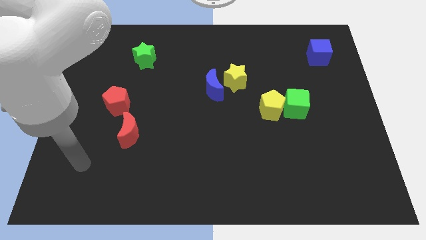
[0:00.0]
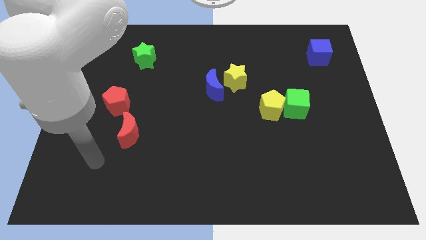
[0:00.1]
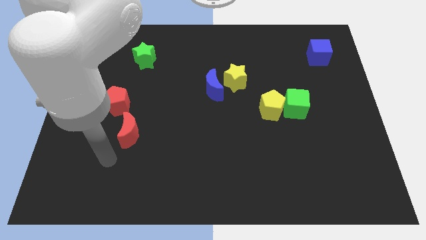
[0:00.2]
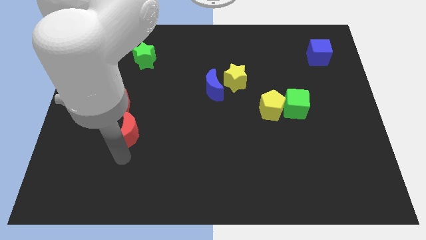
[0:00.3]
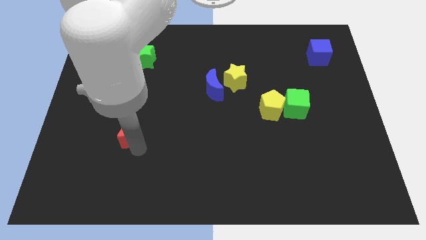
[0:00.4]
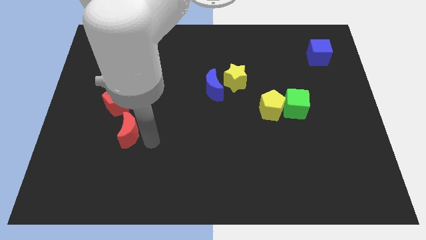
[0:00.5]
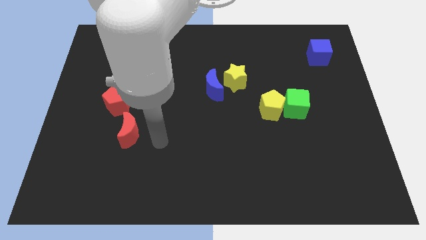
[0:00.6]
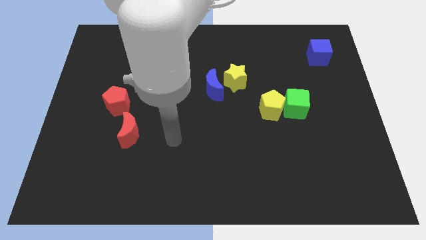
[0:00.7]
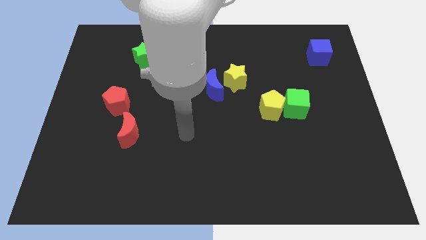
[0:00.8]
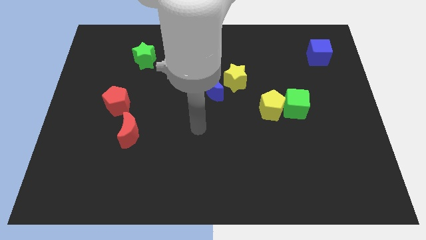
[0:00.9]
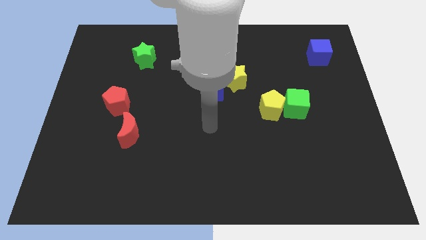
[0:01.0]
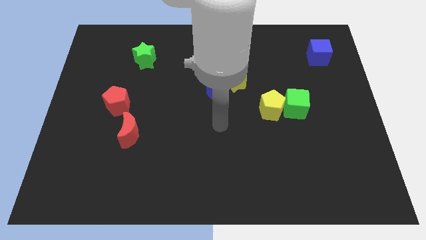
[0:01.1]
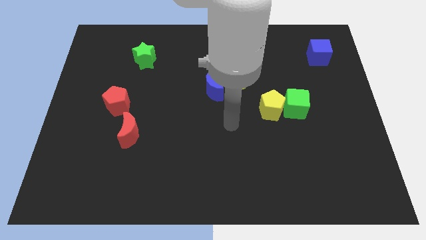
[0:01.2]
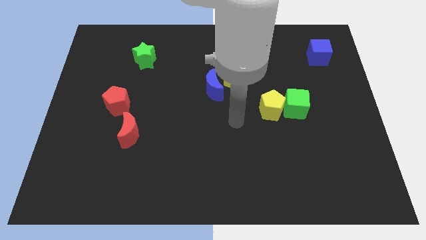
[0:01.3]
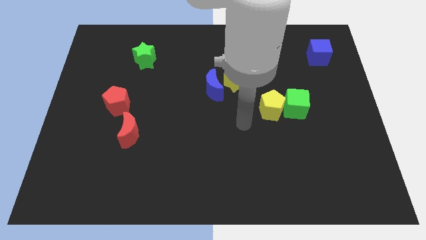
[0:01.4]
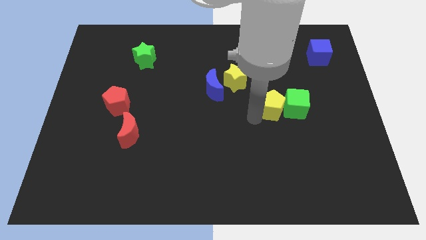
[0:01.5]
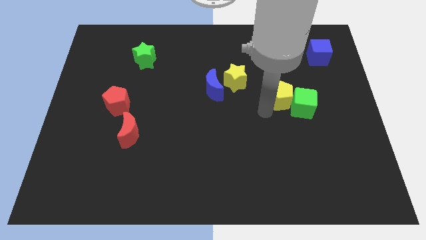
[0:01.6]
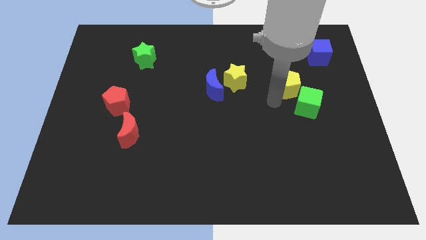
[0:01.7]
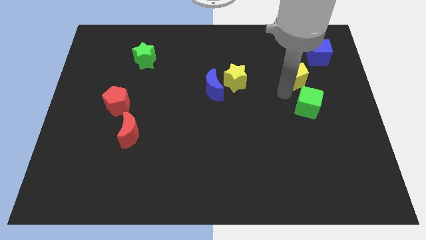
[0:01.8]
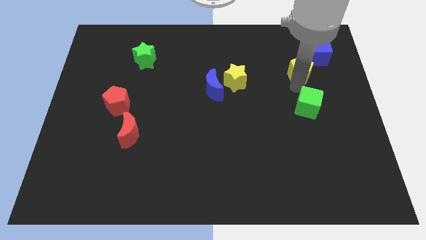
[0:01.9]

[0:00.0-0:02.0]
move the green cube away from the yellow pentagon

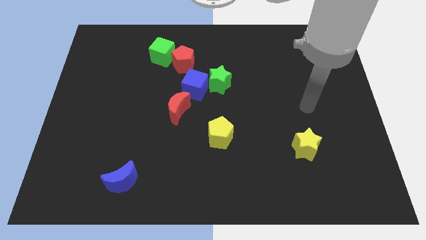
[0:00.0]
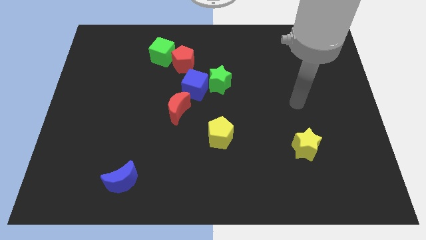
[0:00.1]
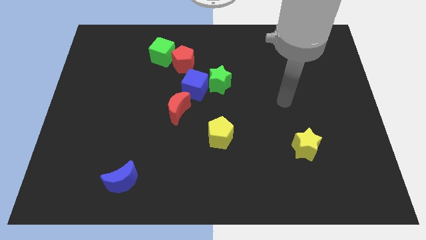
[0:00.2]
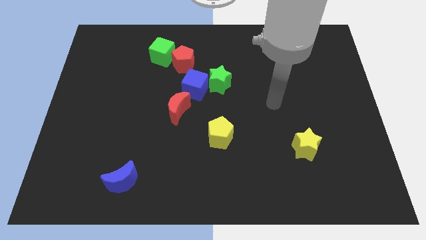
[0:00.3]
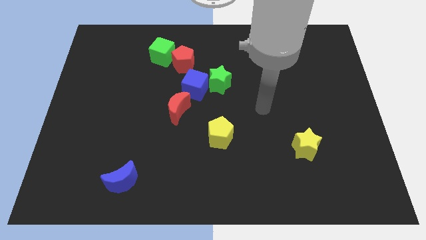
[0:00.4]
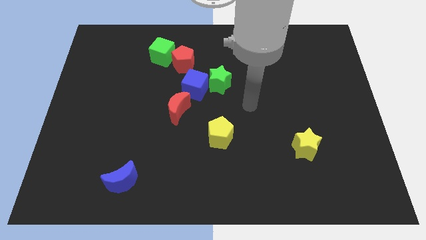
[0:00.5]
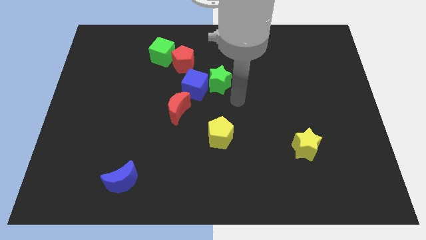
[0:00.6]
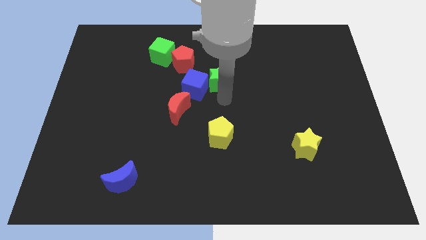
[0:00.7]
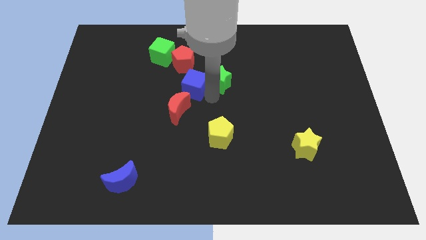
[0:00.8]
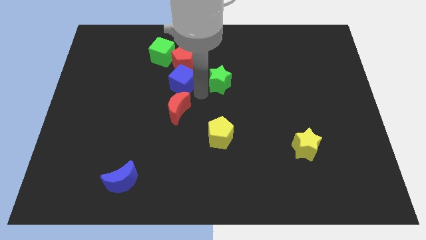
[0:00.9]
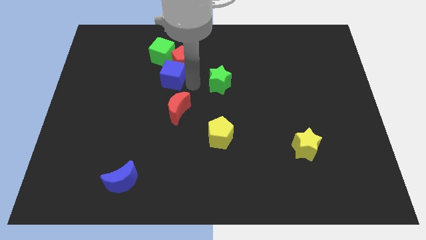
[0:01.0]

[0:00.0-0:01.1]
move the green star away from the blue cube

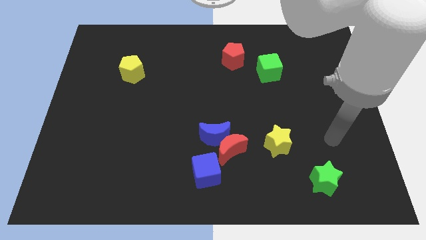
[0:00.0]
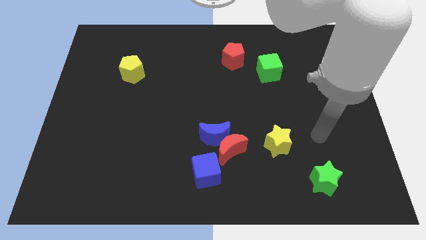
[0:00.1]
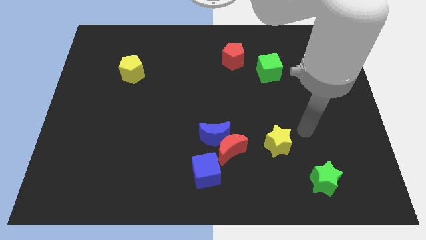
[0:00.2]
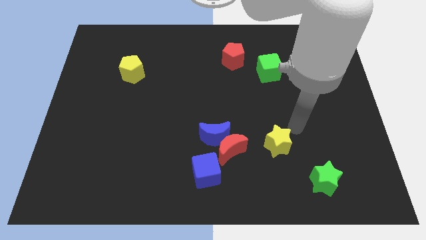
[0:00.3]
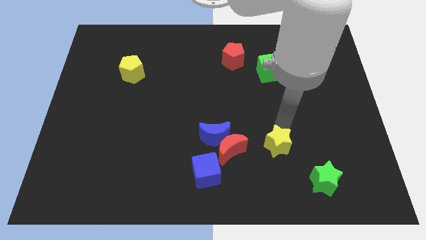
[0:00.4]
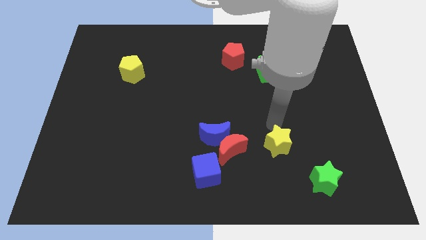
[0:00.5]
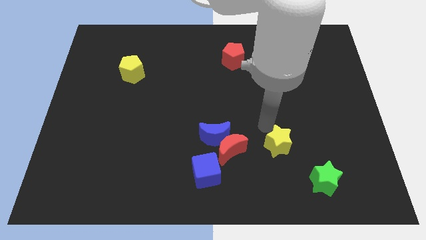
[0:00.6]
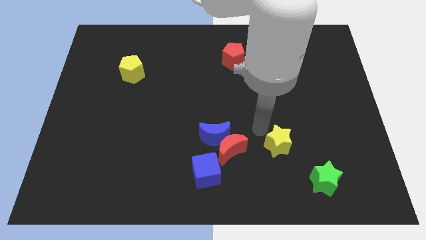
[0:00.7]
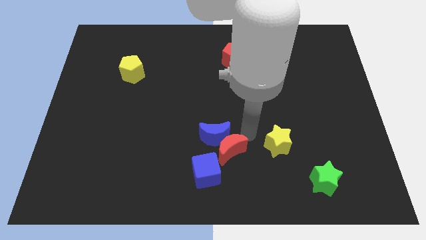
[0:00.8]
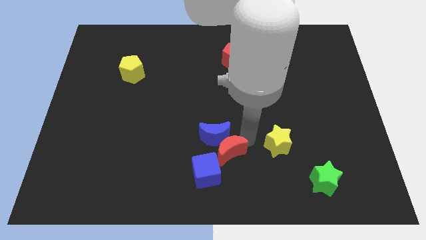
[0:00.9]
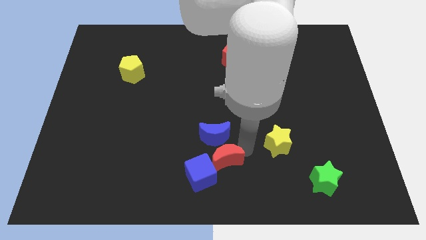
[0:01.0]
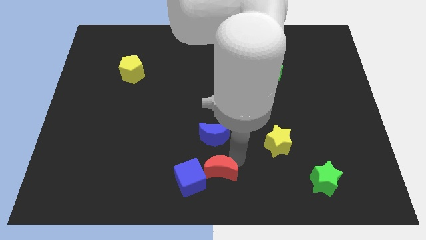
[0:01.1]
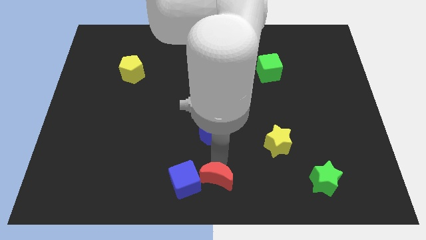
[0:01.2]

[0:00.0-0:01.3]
pull the blue moon apart from the red moon and blue cube

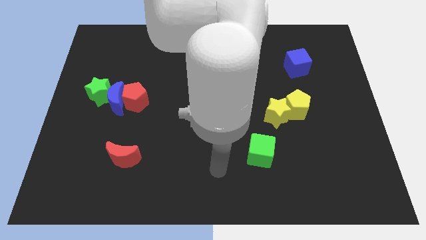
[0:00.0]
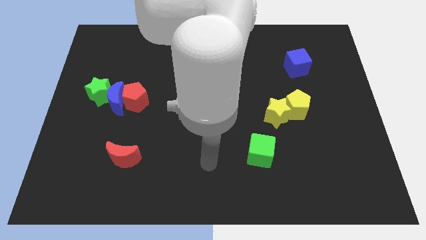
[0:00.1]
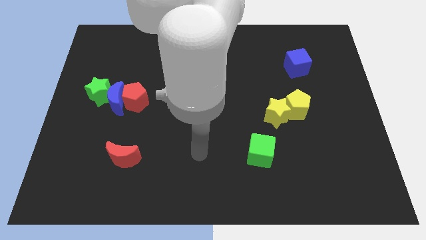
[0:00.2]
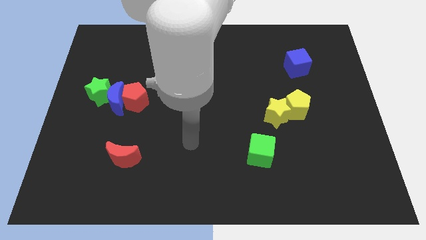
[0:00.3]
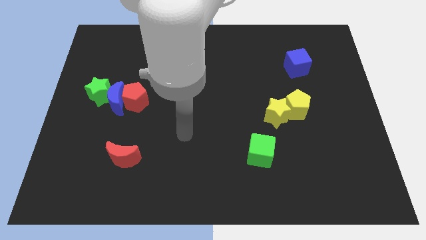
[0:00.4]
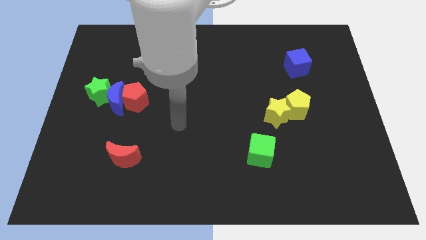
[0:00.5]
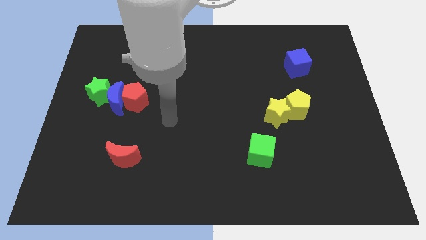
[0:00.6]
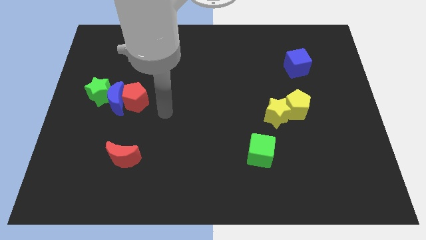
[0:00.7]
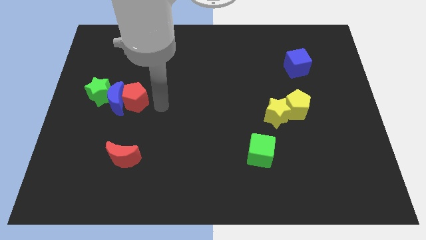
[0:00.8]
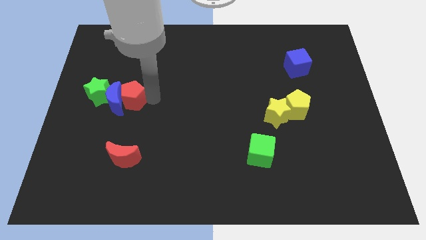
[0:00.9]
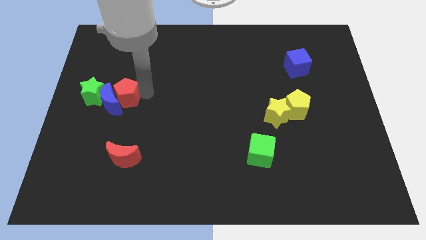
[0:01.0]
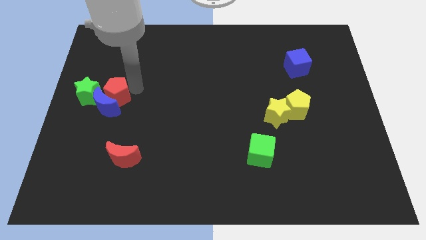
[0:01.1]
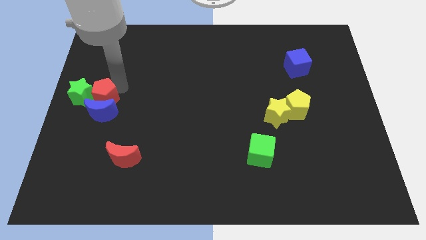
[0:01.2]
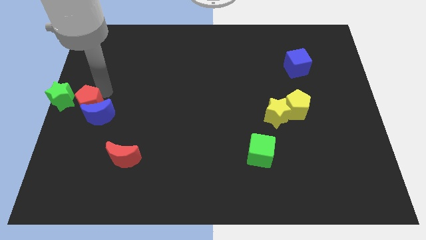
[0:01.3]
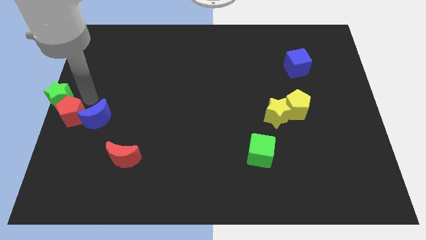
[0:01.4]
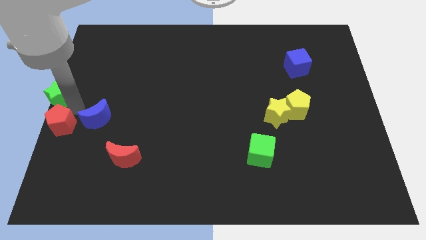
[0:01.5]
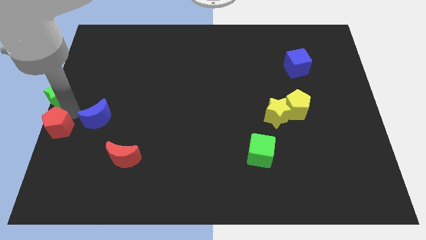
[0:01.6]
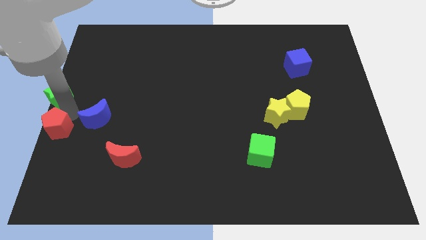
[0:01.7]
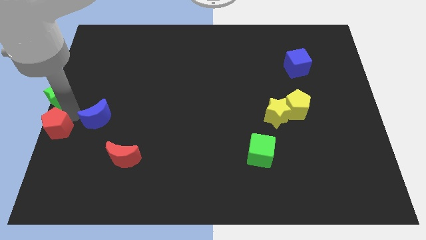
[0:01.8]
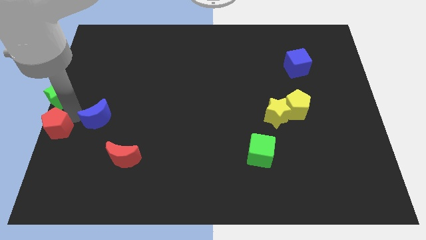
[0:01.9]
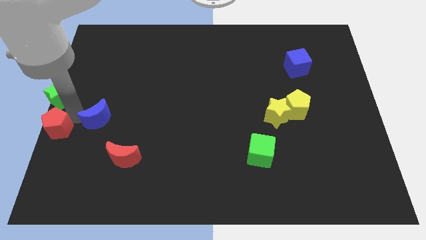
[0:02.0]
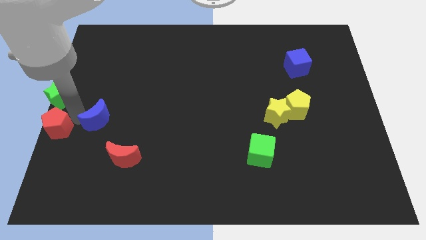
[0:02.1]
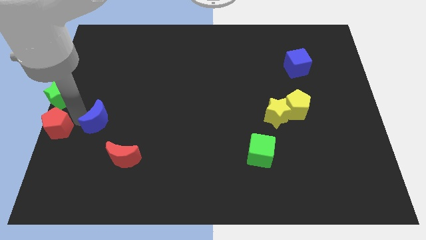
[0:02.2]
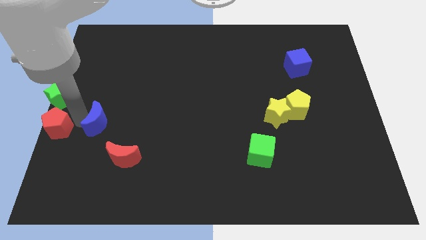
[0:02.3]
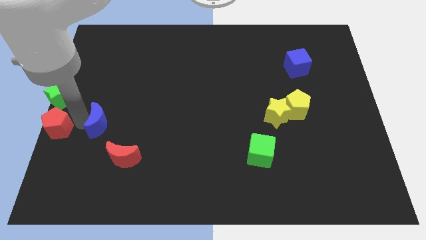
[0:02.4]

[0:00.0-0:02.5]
separate the blue moon from the red pentagon and green star

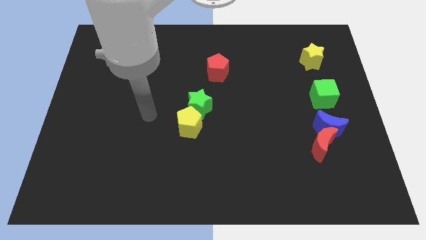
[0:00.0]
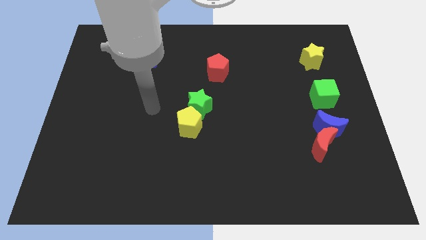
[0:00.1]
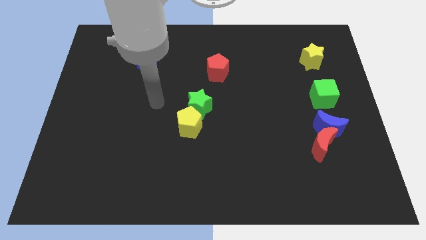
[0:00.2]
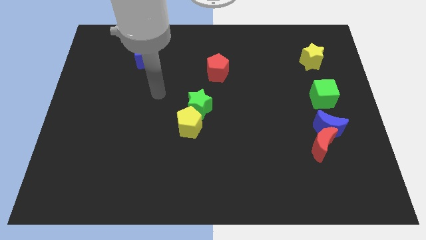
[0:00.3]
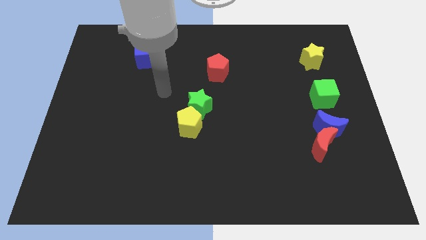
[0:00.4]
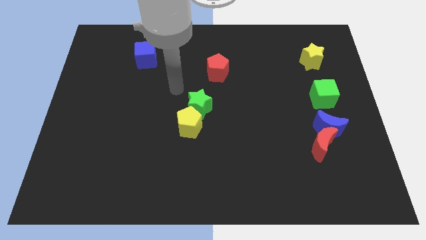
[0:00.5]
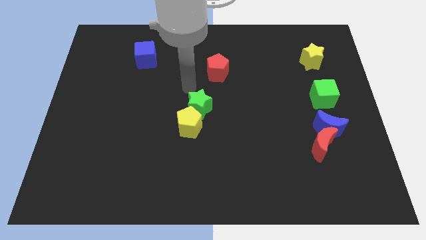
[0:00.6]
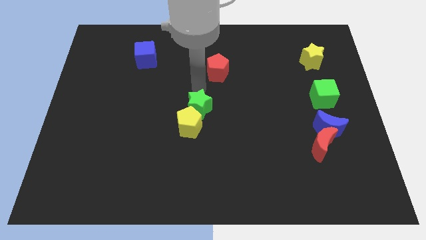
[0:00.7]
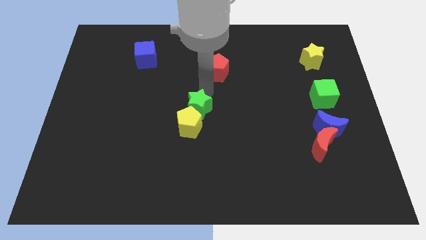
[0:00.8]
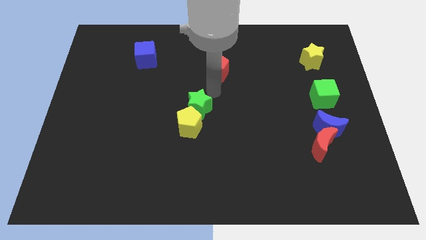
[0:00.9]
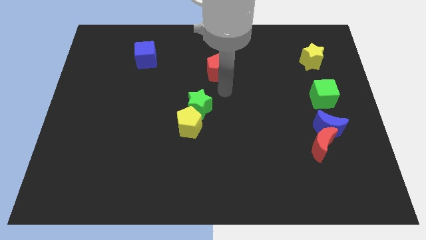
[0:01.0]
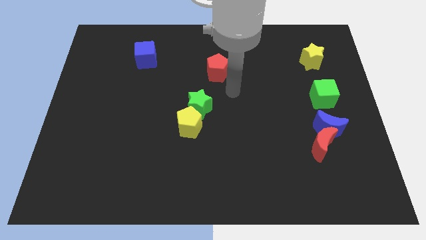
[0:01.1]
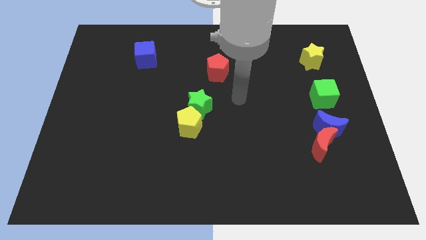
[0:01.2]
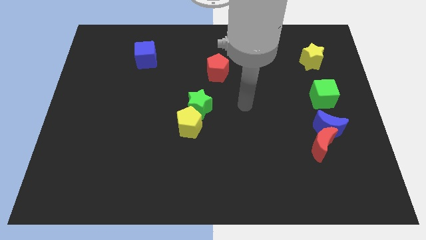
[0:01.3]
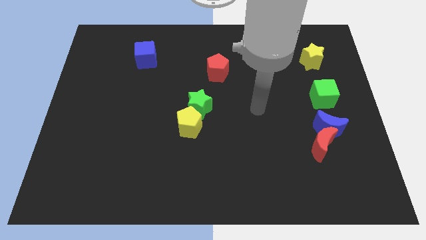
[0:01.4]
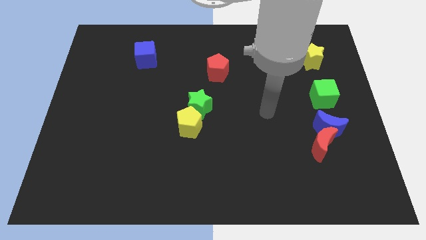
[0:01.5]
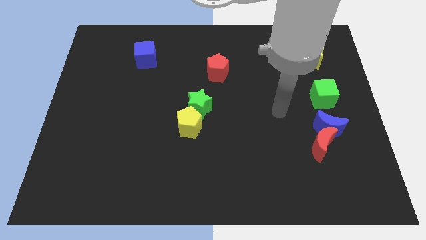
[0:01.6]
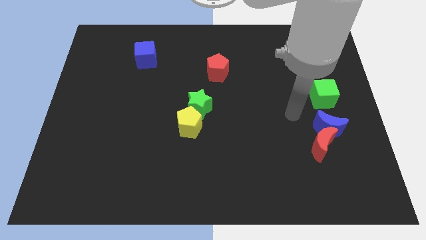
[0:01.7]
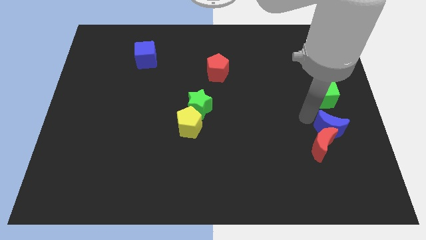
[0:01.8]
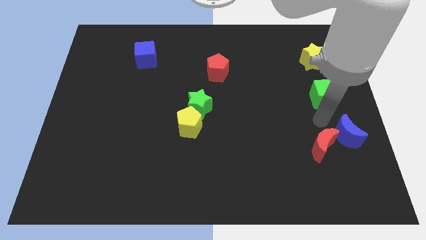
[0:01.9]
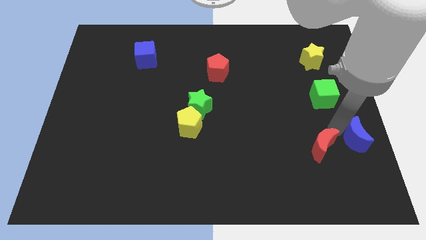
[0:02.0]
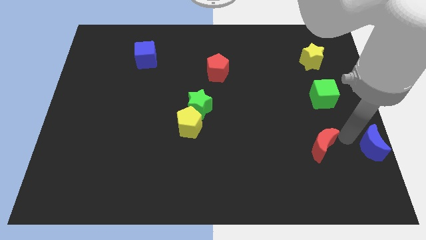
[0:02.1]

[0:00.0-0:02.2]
separate the red moon from the blue moon

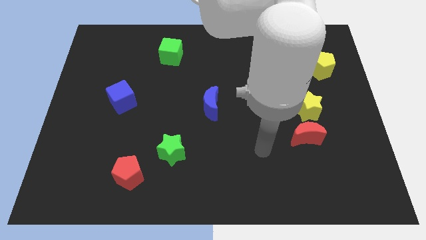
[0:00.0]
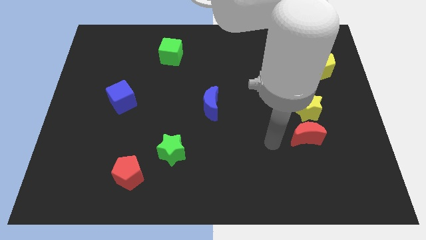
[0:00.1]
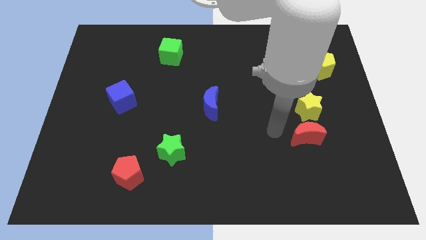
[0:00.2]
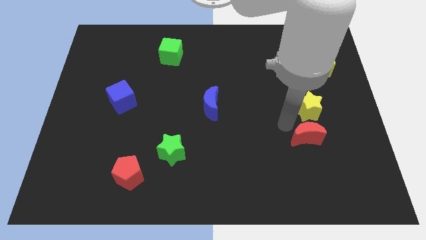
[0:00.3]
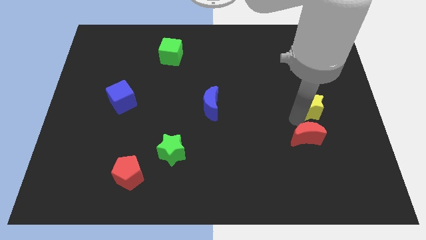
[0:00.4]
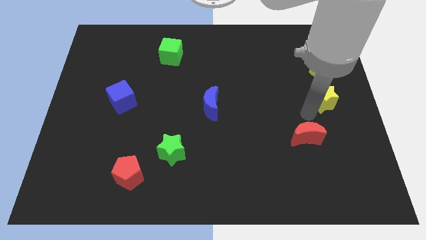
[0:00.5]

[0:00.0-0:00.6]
separate the red moon from the yellow star
